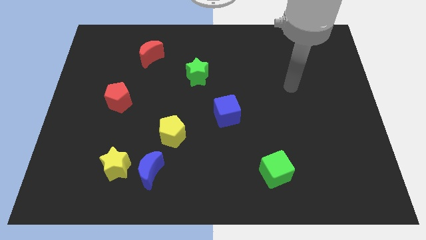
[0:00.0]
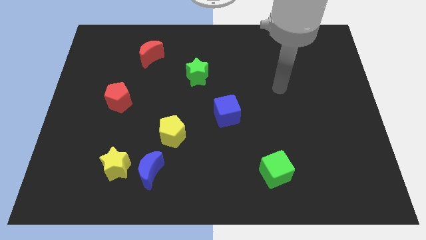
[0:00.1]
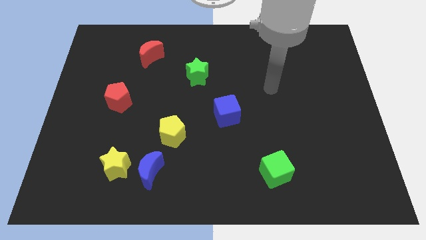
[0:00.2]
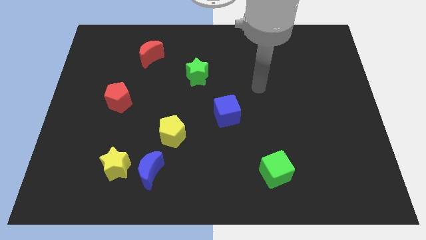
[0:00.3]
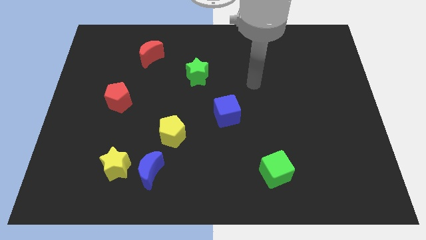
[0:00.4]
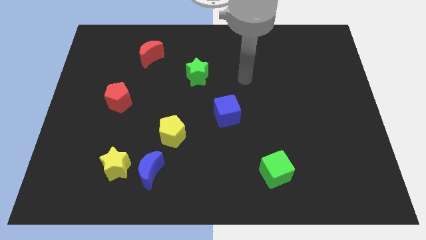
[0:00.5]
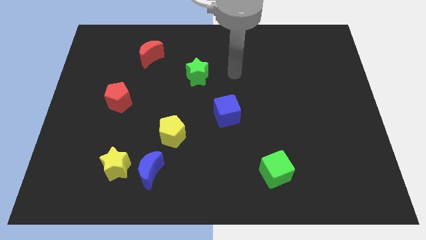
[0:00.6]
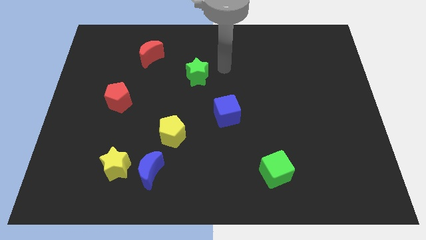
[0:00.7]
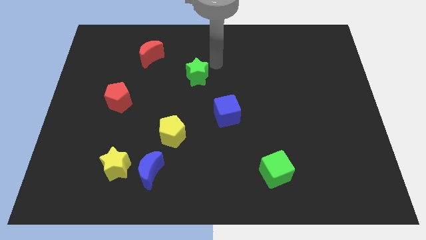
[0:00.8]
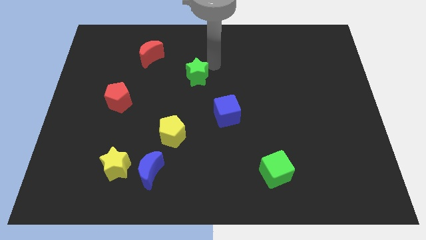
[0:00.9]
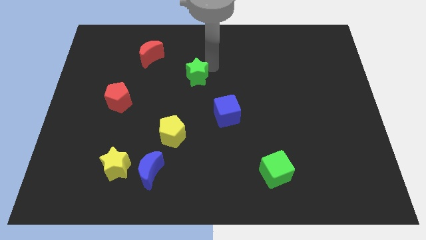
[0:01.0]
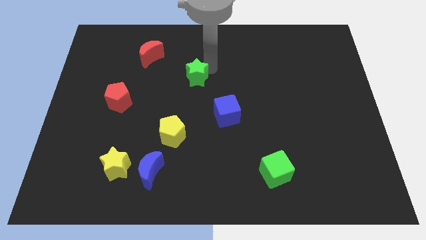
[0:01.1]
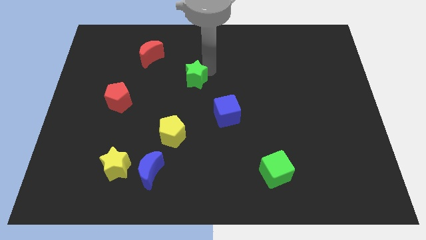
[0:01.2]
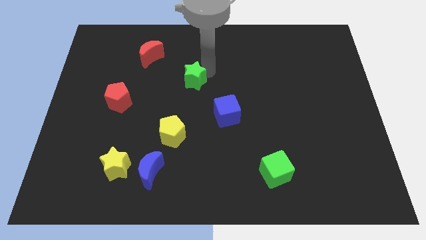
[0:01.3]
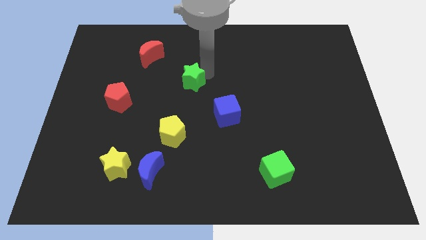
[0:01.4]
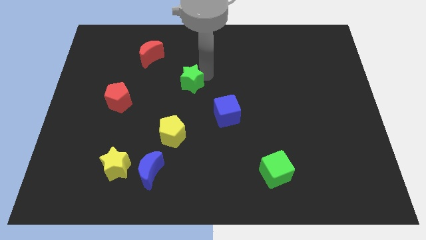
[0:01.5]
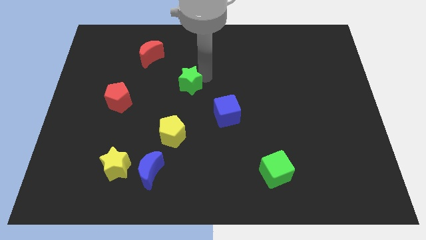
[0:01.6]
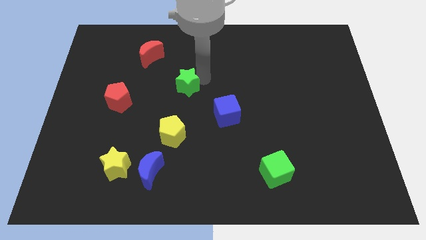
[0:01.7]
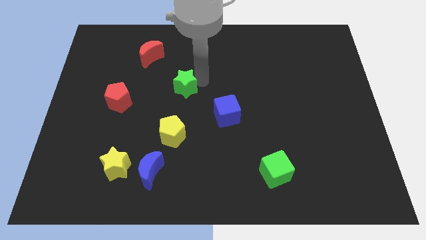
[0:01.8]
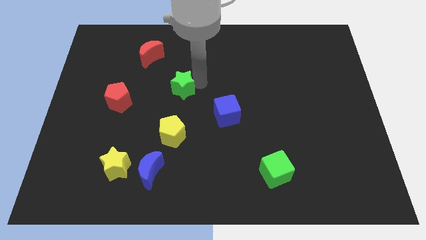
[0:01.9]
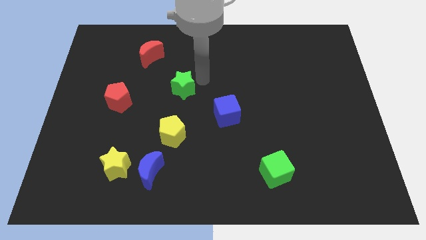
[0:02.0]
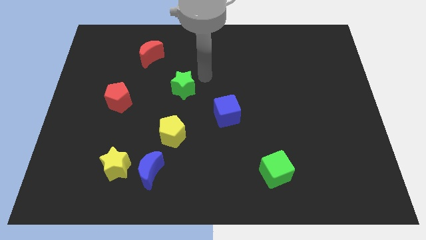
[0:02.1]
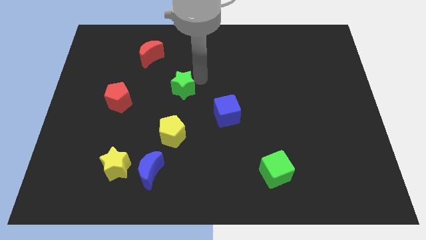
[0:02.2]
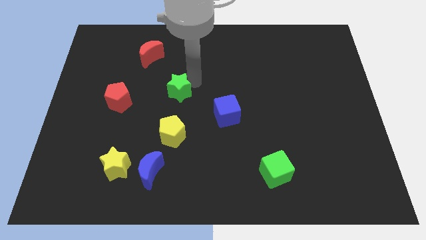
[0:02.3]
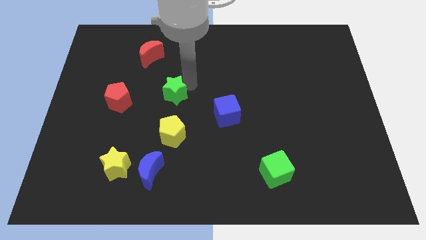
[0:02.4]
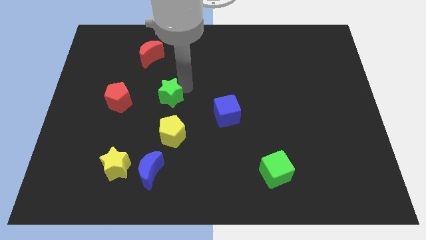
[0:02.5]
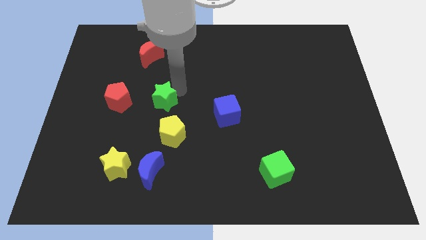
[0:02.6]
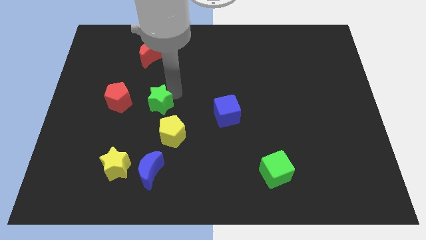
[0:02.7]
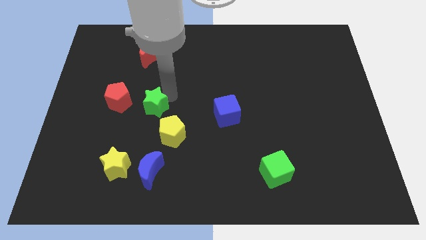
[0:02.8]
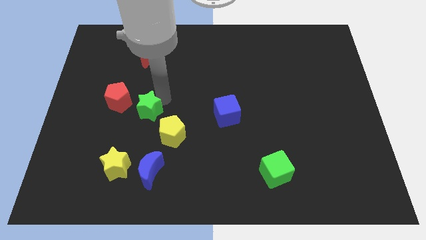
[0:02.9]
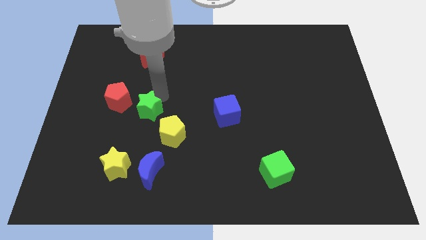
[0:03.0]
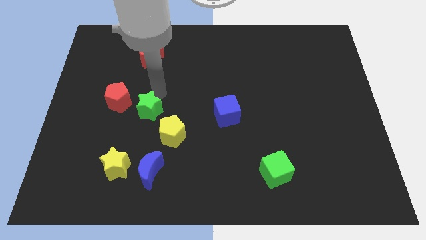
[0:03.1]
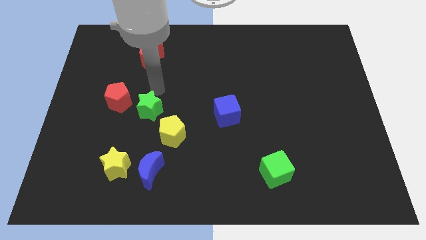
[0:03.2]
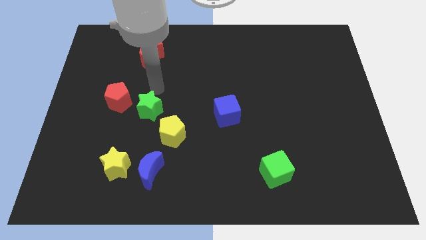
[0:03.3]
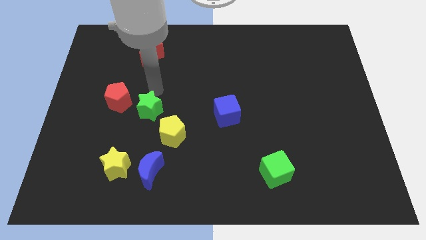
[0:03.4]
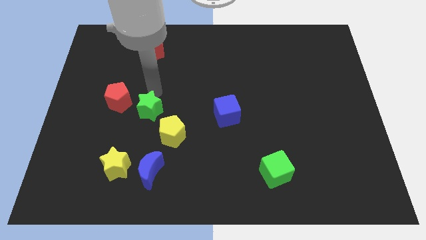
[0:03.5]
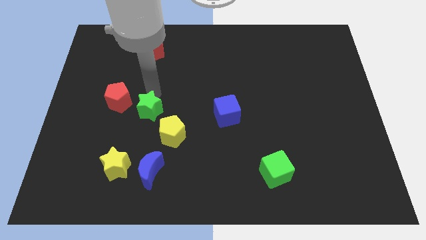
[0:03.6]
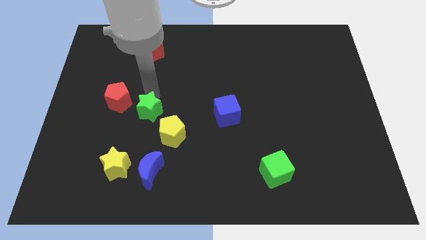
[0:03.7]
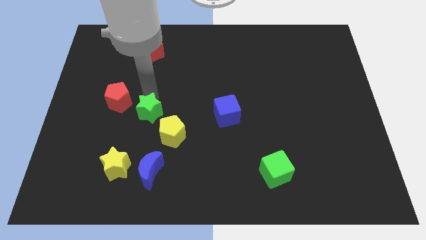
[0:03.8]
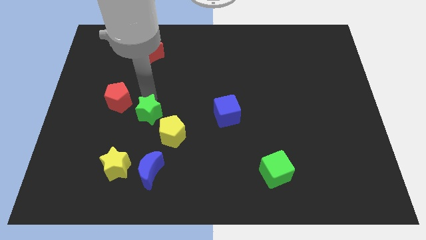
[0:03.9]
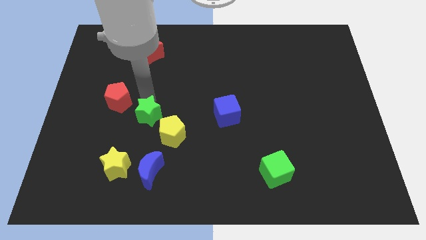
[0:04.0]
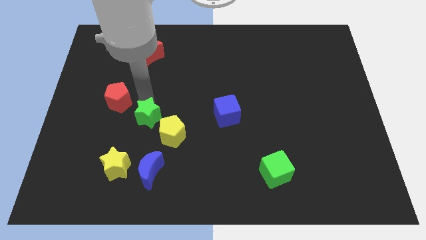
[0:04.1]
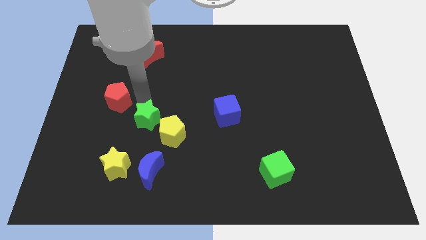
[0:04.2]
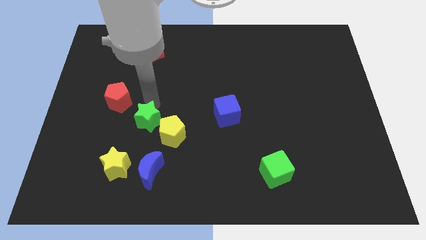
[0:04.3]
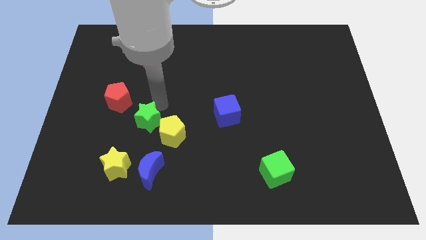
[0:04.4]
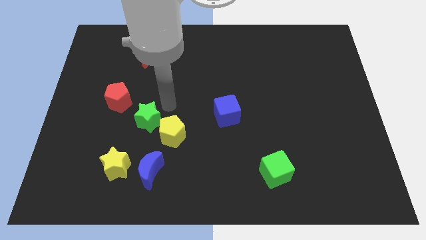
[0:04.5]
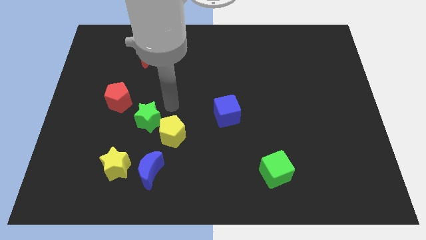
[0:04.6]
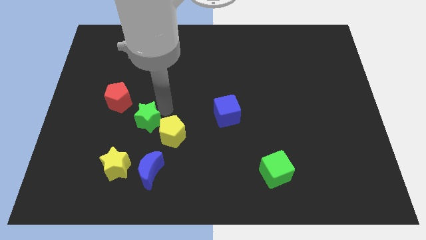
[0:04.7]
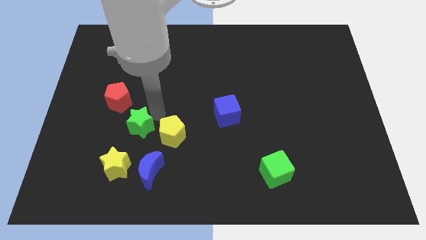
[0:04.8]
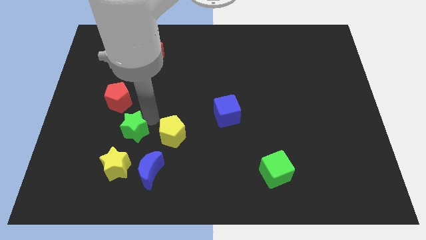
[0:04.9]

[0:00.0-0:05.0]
move the green star diagonally down and left

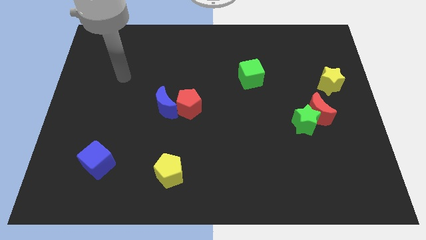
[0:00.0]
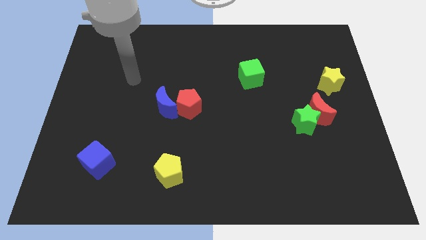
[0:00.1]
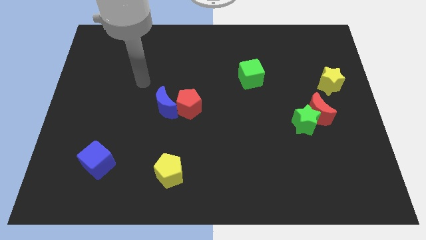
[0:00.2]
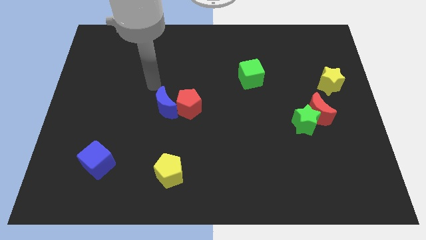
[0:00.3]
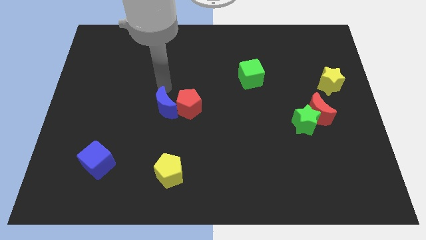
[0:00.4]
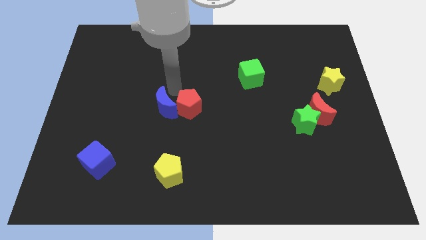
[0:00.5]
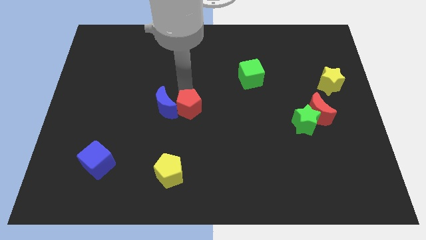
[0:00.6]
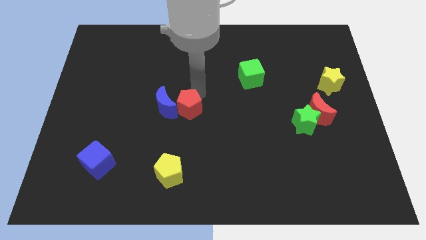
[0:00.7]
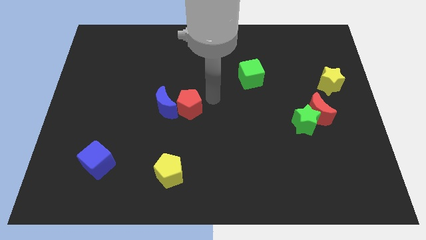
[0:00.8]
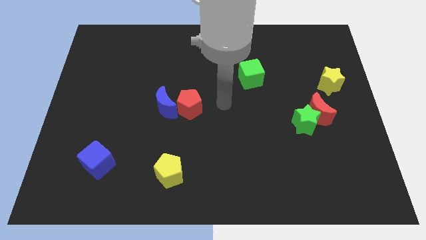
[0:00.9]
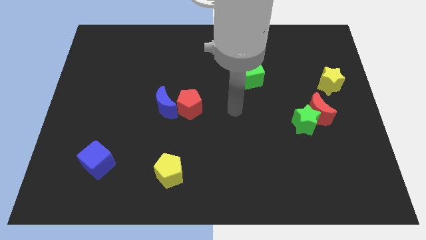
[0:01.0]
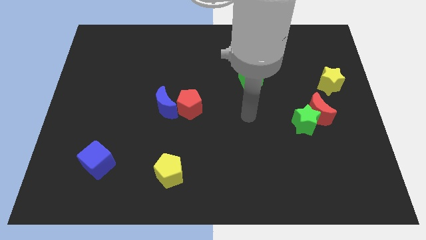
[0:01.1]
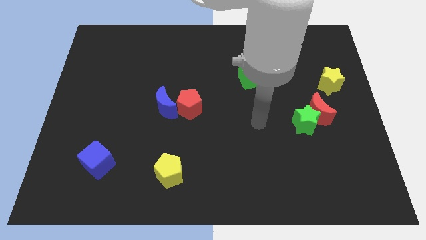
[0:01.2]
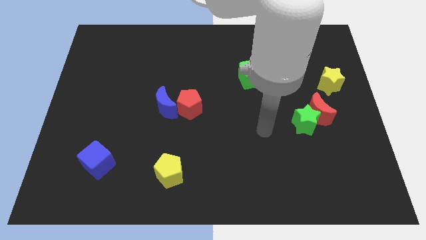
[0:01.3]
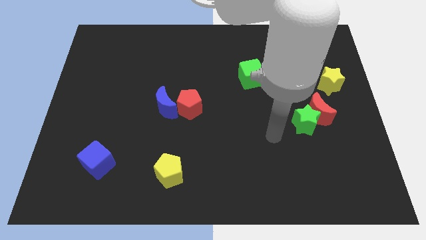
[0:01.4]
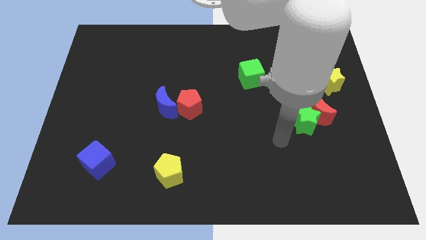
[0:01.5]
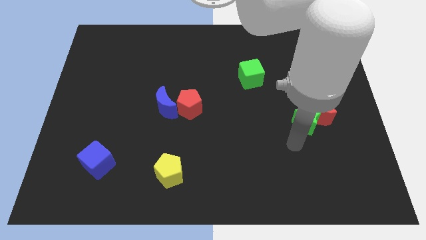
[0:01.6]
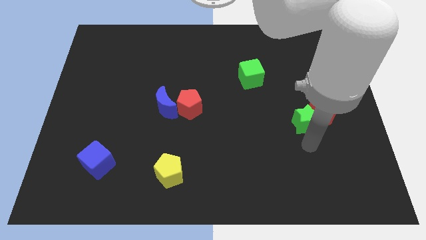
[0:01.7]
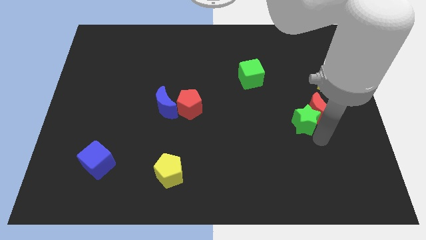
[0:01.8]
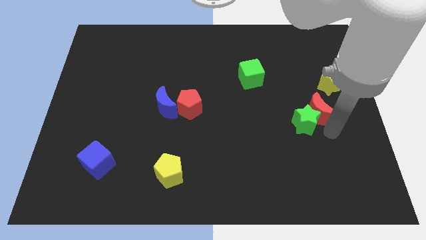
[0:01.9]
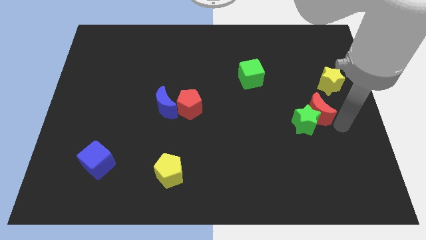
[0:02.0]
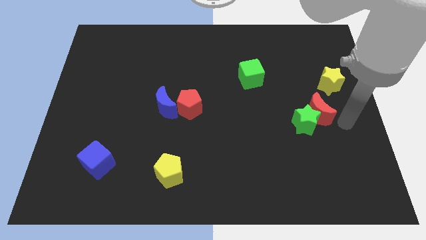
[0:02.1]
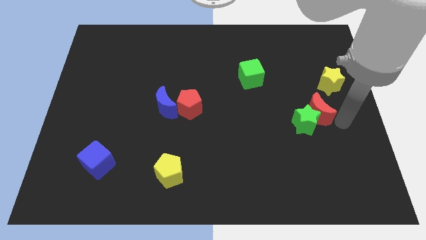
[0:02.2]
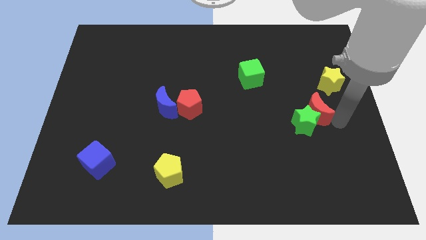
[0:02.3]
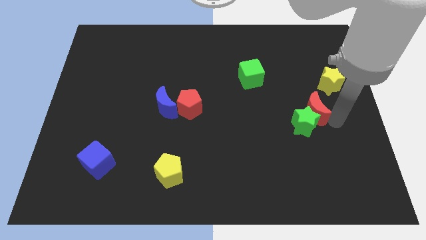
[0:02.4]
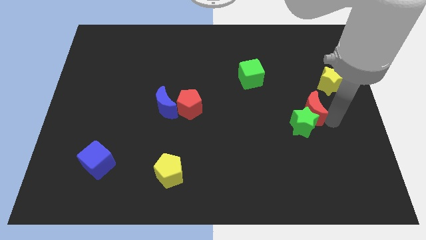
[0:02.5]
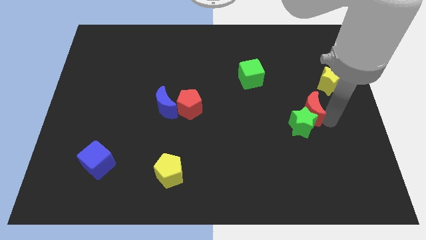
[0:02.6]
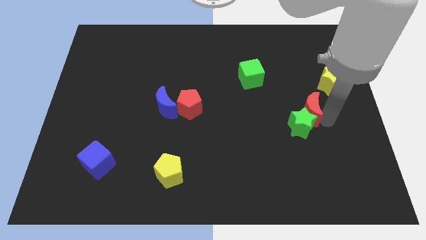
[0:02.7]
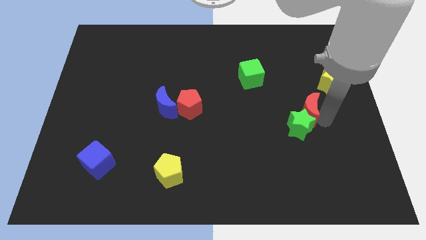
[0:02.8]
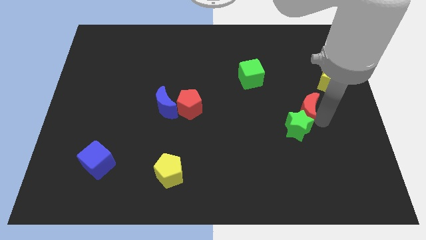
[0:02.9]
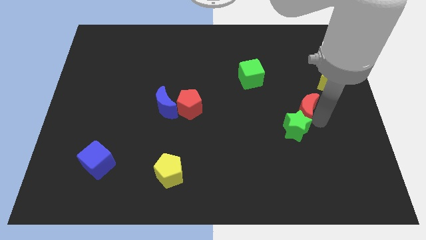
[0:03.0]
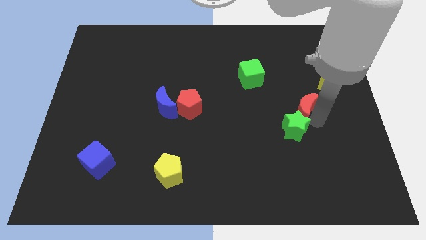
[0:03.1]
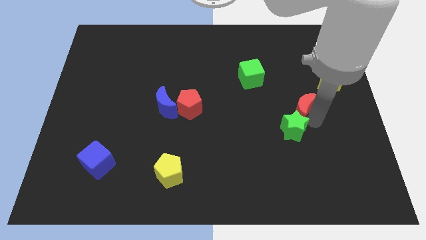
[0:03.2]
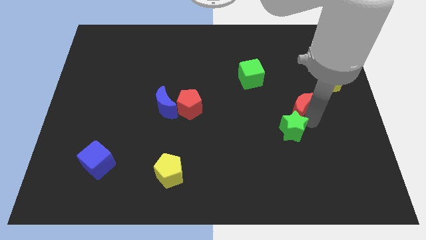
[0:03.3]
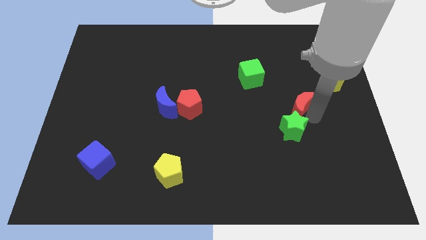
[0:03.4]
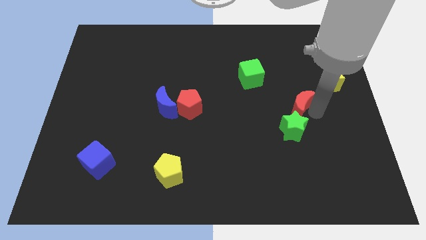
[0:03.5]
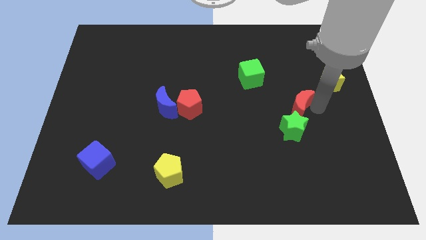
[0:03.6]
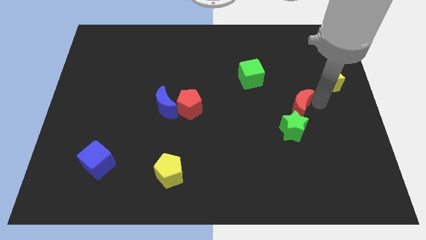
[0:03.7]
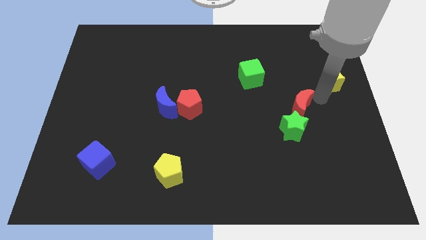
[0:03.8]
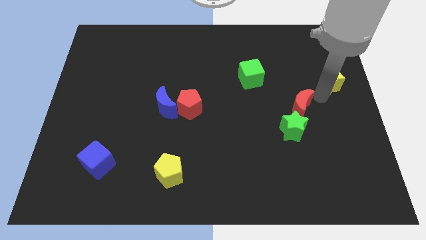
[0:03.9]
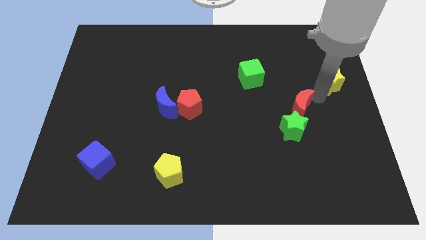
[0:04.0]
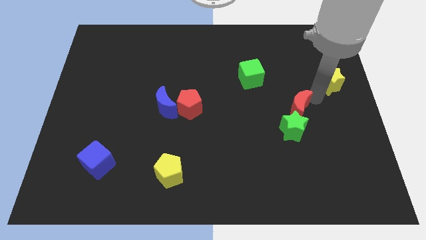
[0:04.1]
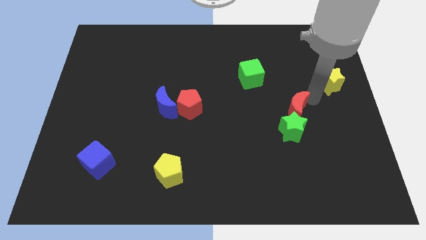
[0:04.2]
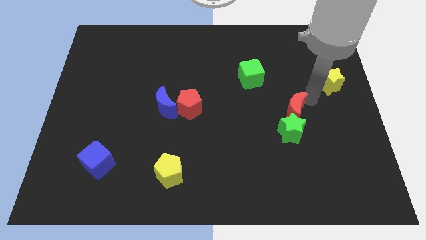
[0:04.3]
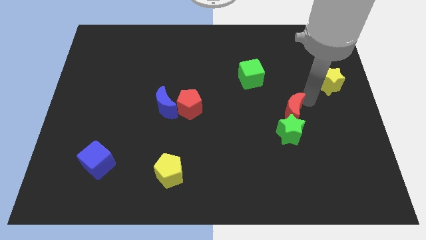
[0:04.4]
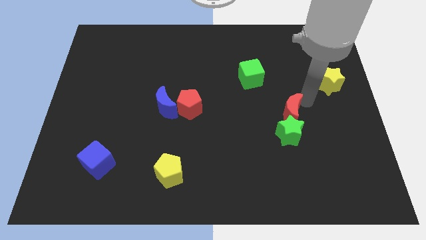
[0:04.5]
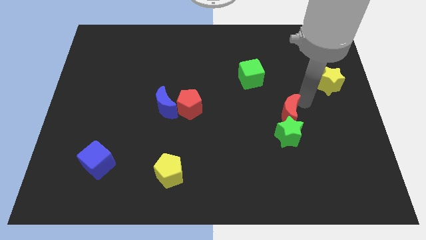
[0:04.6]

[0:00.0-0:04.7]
slide the red moon a bit to the left
